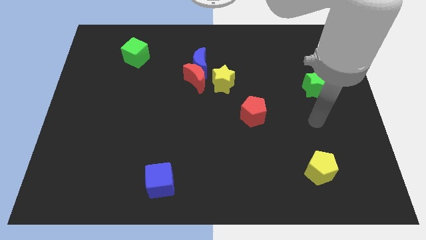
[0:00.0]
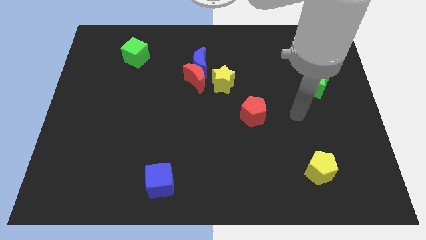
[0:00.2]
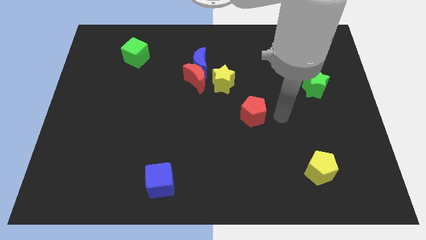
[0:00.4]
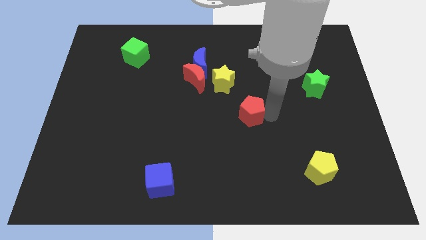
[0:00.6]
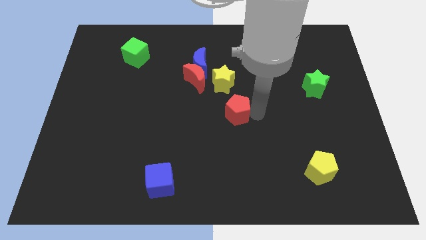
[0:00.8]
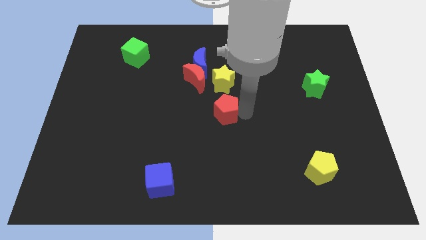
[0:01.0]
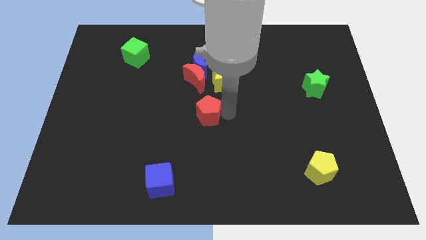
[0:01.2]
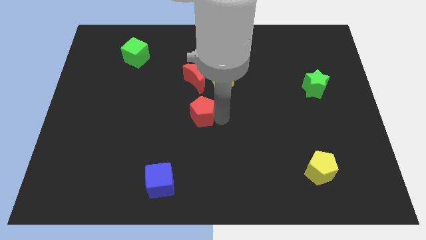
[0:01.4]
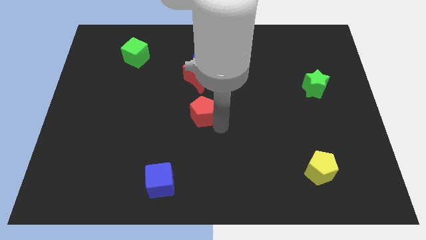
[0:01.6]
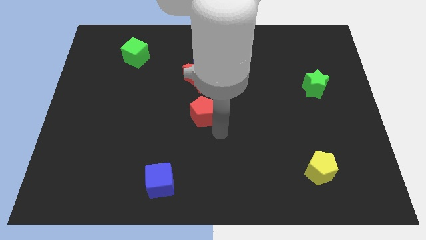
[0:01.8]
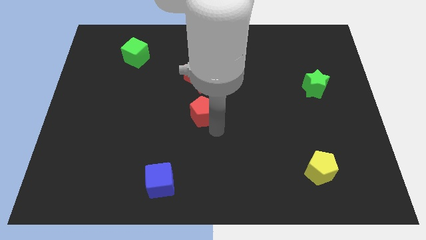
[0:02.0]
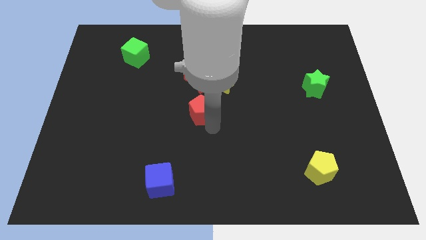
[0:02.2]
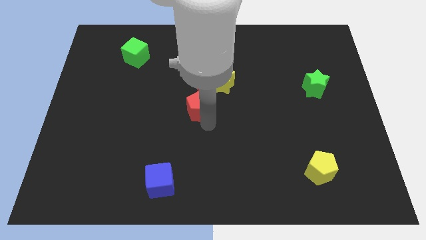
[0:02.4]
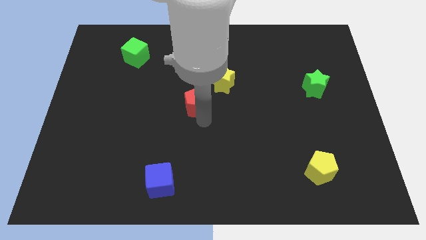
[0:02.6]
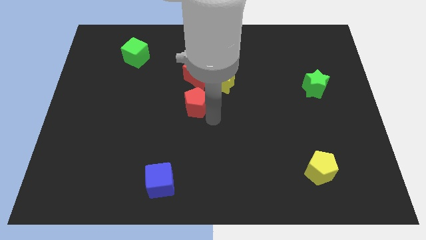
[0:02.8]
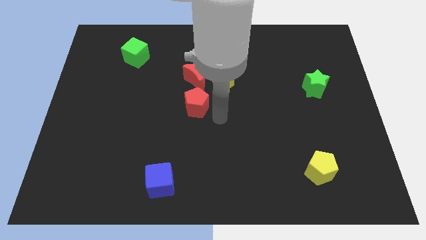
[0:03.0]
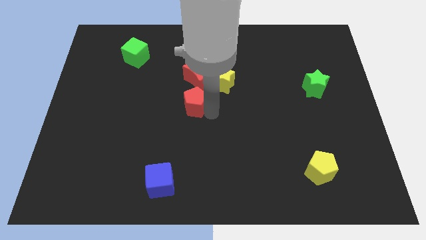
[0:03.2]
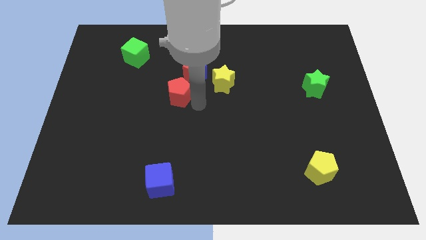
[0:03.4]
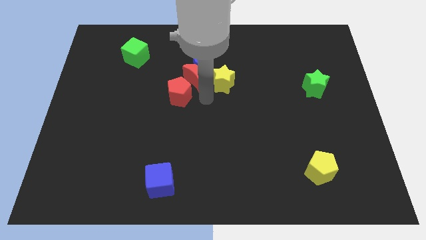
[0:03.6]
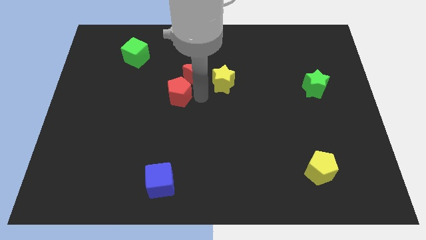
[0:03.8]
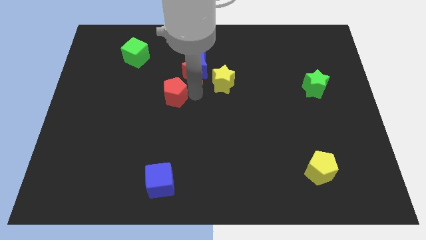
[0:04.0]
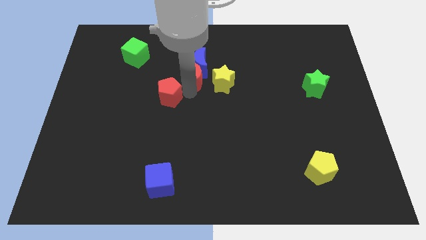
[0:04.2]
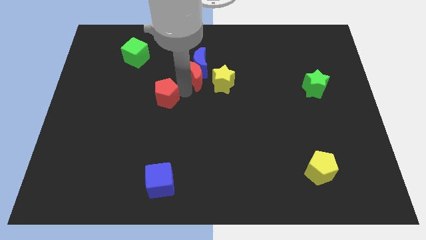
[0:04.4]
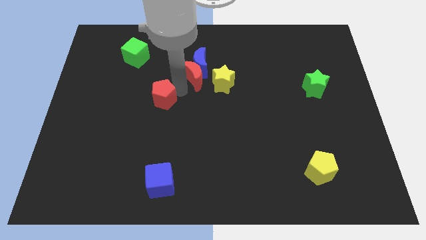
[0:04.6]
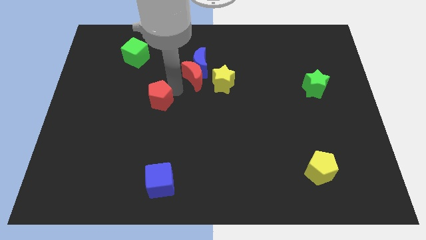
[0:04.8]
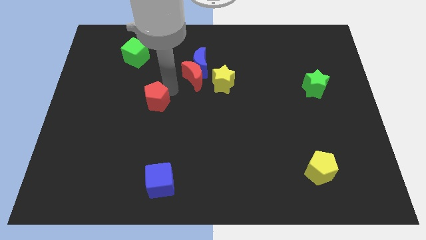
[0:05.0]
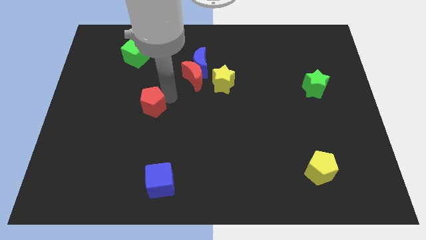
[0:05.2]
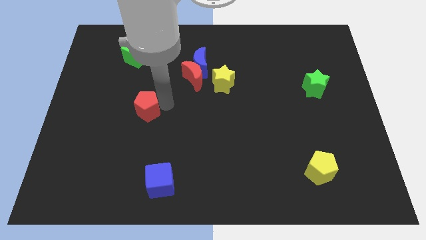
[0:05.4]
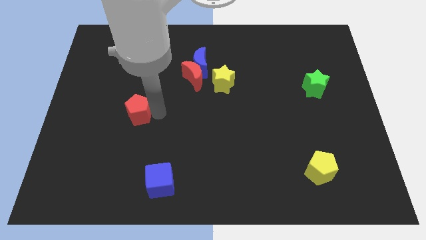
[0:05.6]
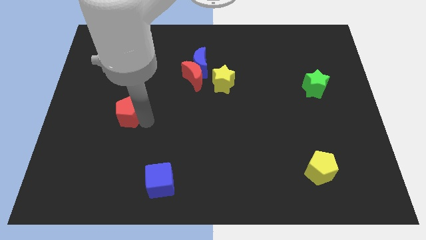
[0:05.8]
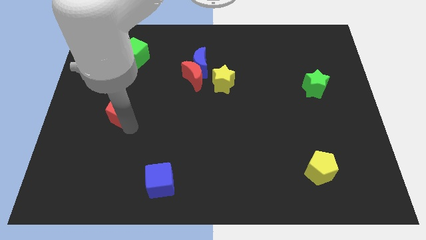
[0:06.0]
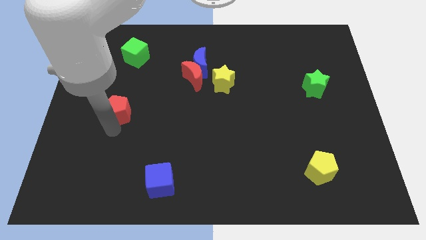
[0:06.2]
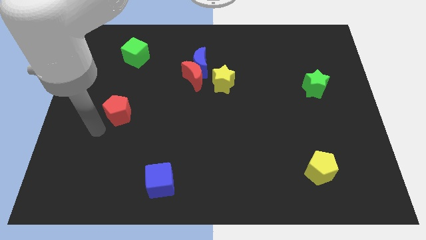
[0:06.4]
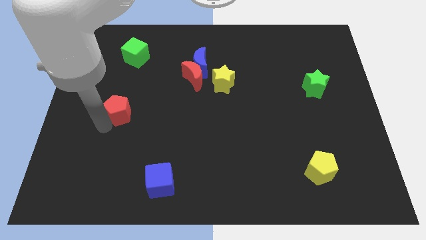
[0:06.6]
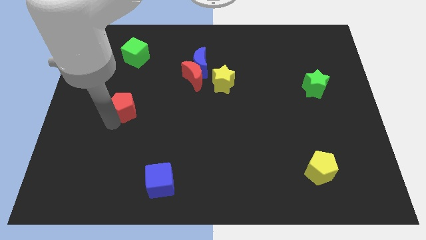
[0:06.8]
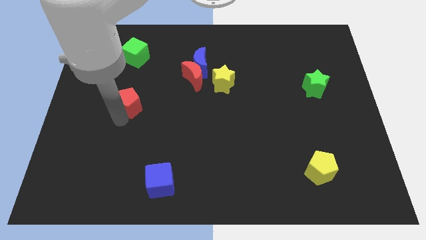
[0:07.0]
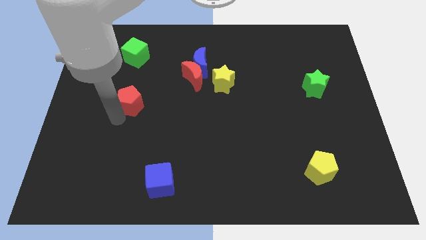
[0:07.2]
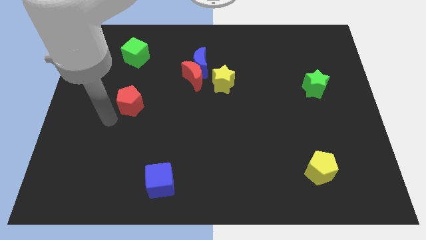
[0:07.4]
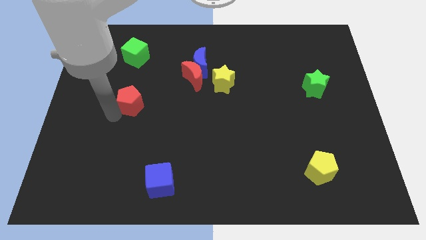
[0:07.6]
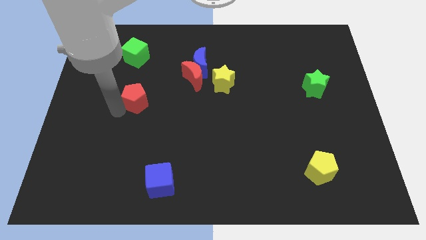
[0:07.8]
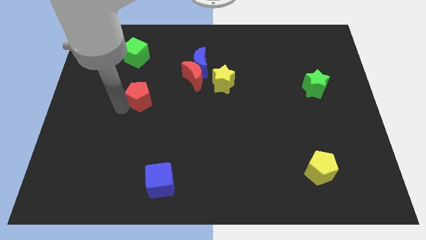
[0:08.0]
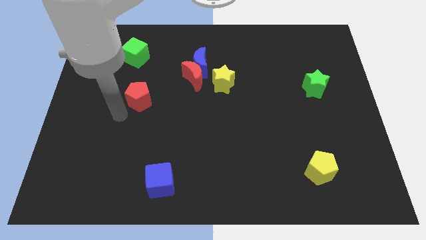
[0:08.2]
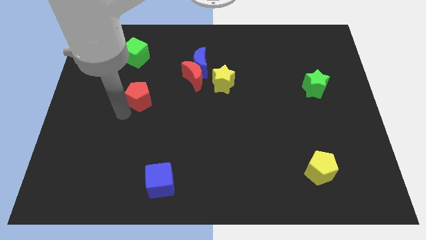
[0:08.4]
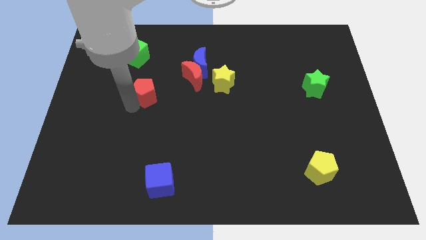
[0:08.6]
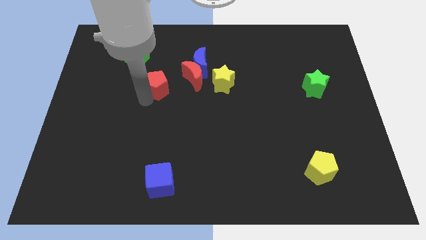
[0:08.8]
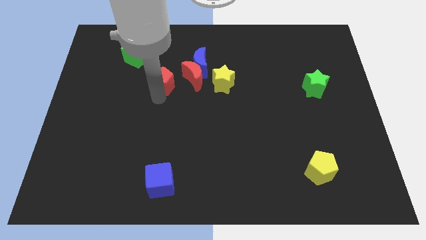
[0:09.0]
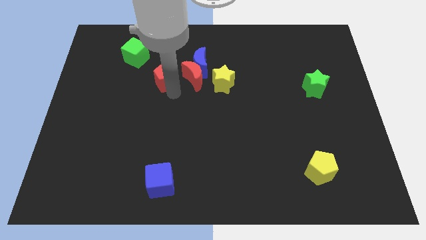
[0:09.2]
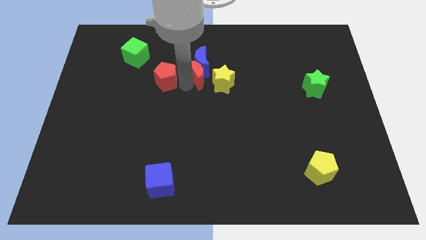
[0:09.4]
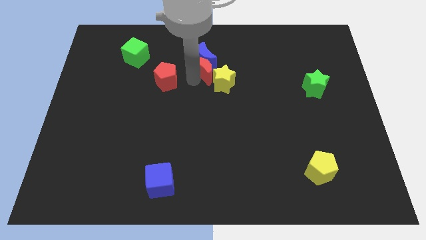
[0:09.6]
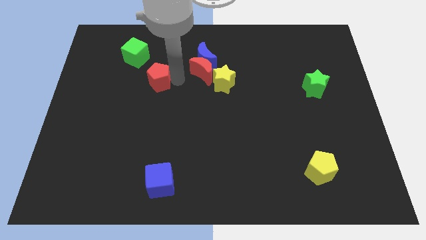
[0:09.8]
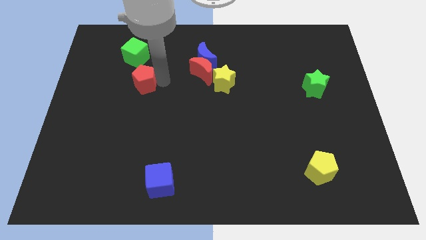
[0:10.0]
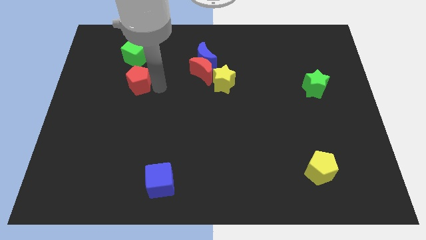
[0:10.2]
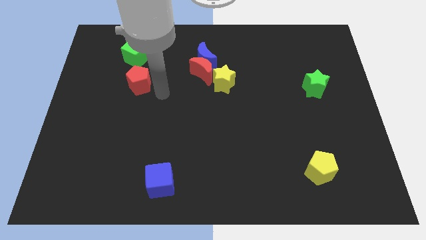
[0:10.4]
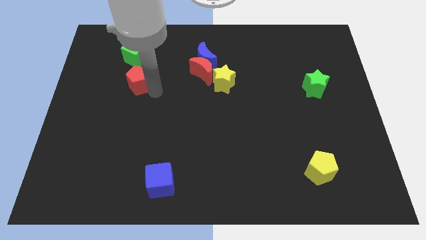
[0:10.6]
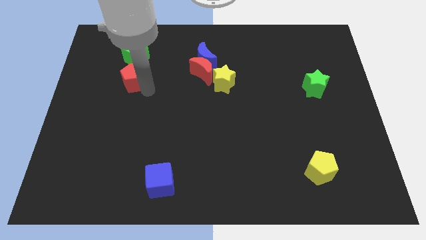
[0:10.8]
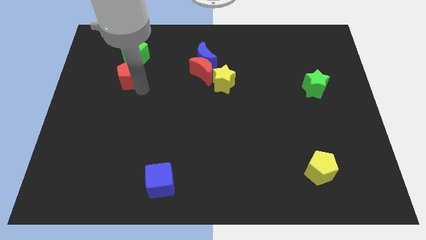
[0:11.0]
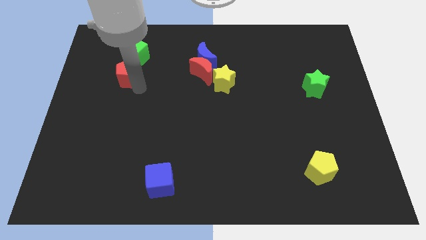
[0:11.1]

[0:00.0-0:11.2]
push the red pentagon diagonally down and to the left of the green cube

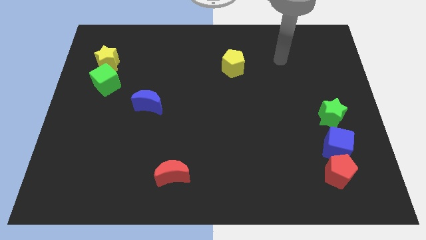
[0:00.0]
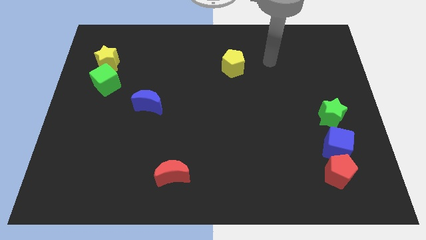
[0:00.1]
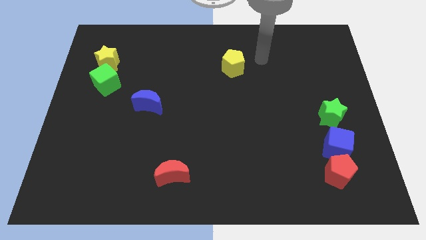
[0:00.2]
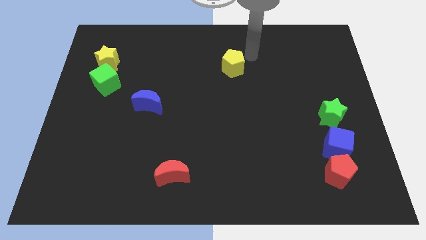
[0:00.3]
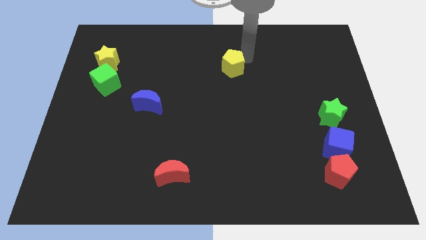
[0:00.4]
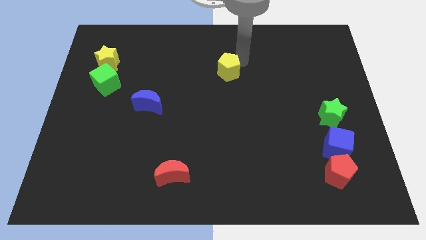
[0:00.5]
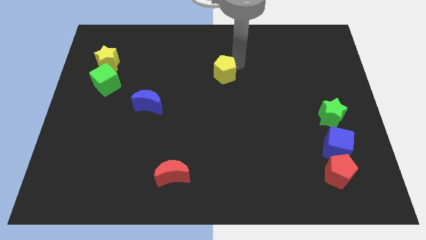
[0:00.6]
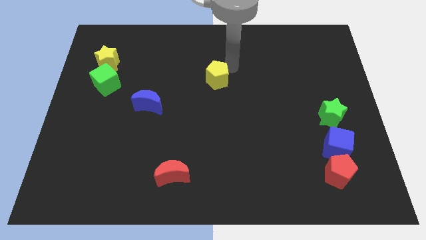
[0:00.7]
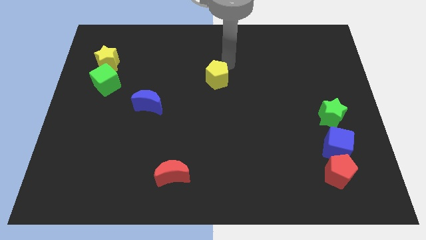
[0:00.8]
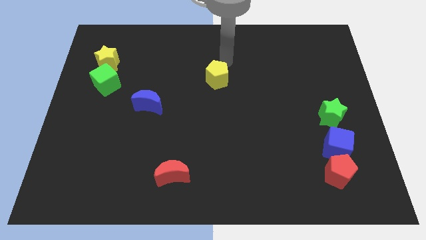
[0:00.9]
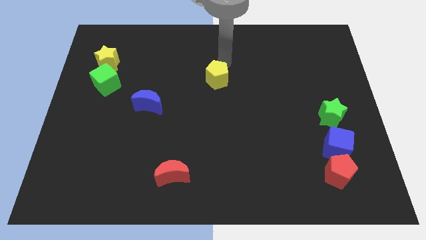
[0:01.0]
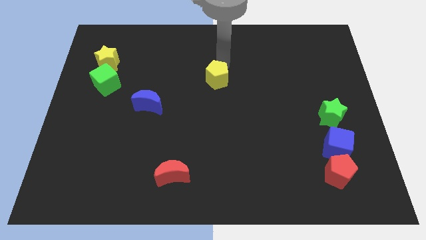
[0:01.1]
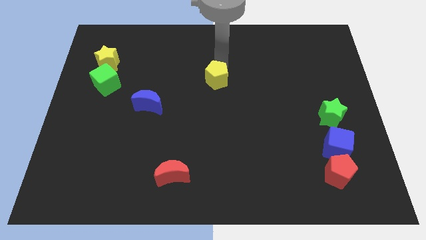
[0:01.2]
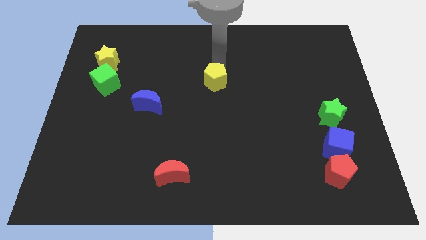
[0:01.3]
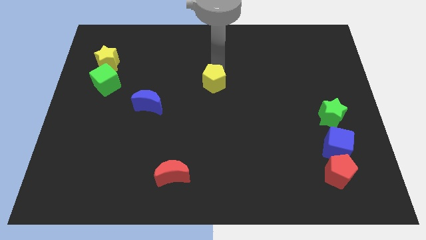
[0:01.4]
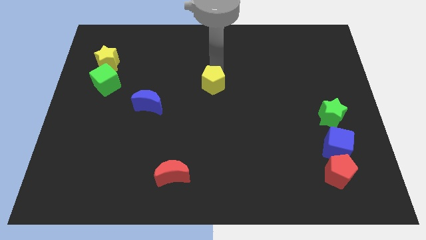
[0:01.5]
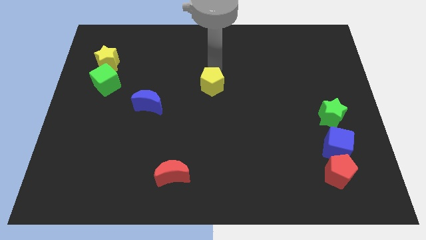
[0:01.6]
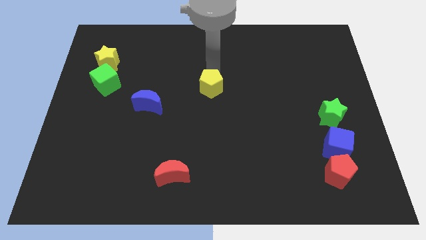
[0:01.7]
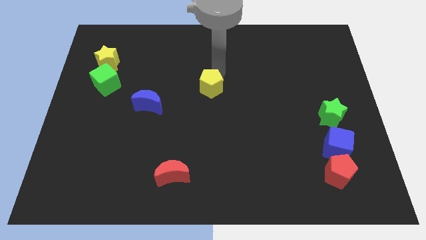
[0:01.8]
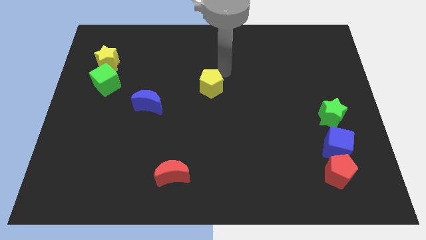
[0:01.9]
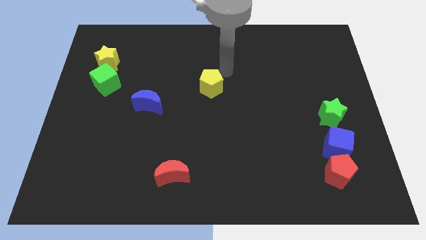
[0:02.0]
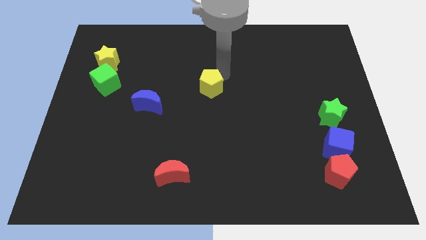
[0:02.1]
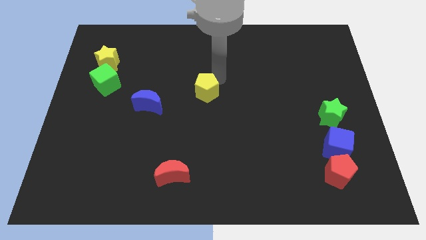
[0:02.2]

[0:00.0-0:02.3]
slide the yellow pentagon to the right of the blue moon
